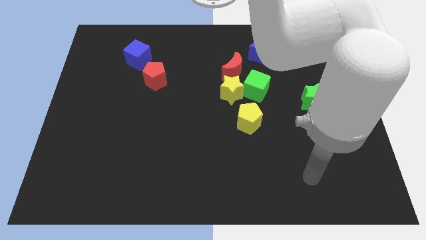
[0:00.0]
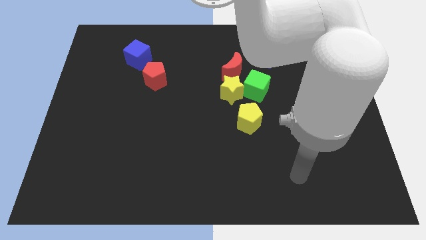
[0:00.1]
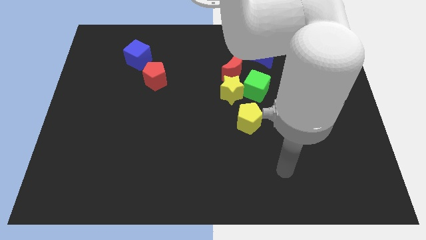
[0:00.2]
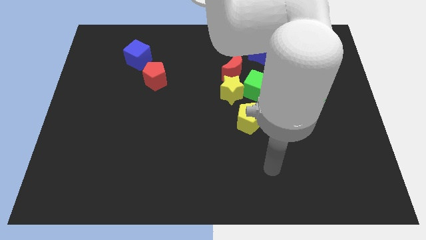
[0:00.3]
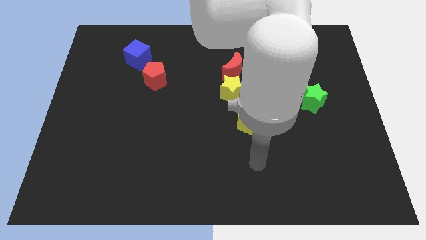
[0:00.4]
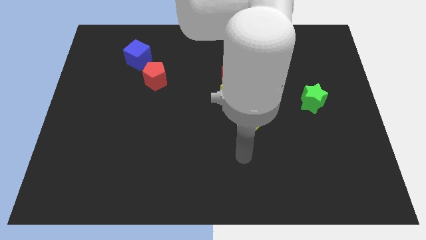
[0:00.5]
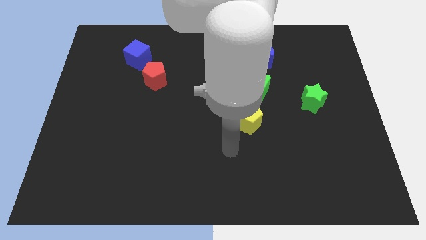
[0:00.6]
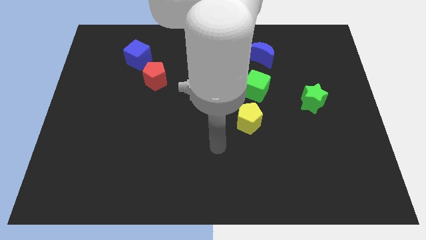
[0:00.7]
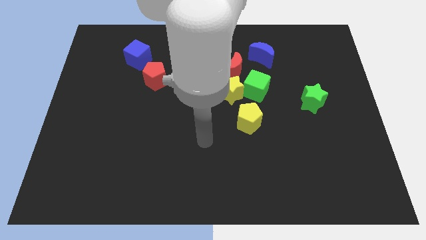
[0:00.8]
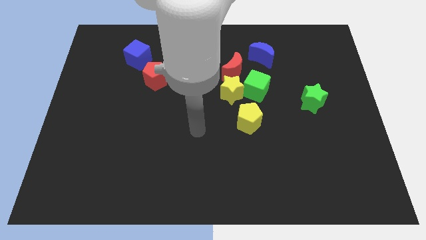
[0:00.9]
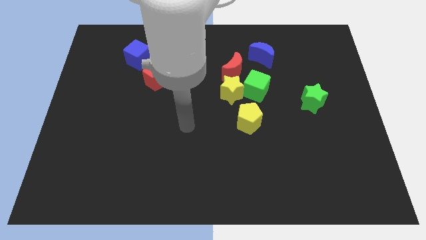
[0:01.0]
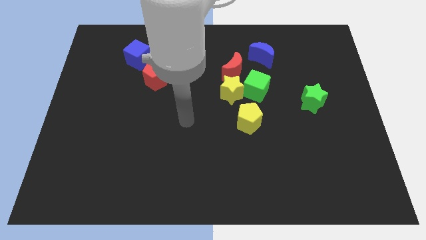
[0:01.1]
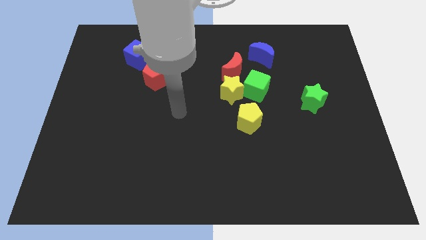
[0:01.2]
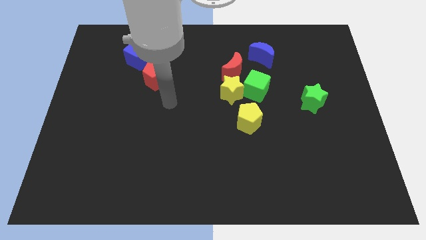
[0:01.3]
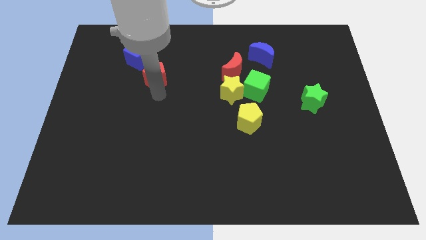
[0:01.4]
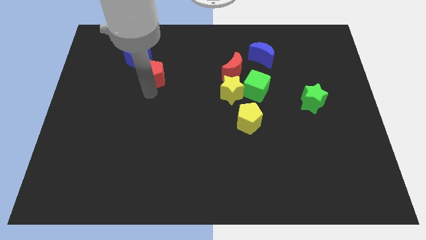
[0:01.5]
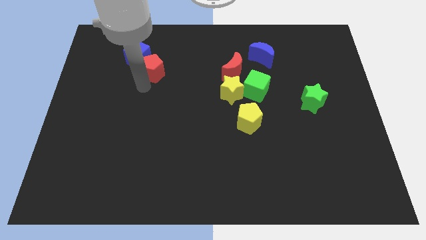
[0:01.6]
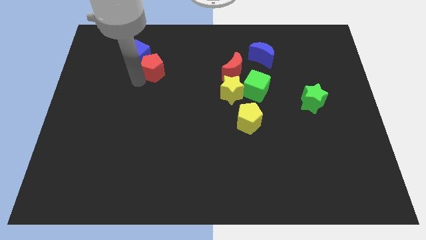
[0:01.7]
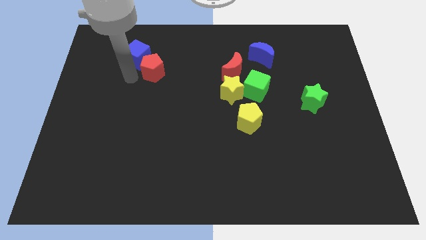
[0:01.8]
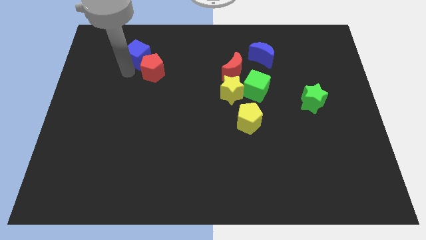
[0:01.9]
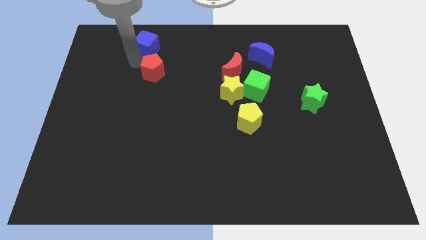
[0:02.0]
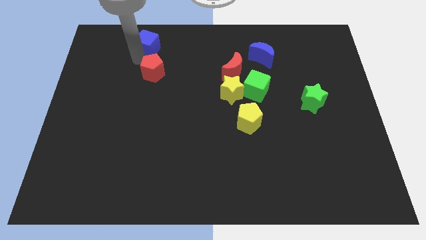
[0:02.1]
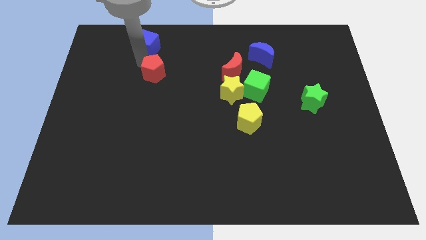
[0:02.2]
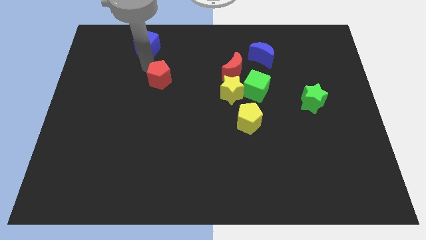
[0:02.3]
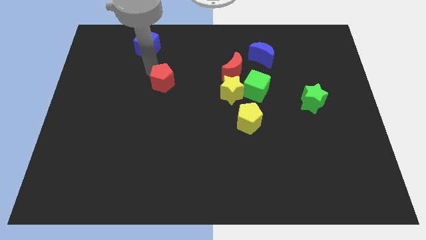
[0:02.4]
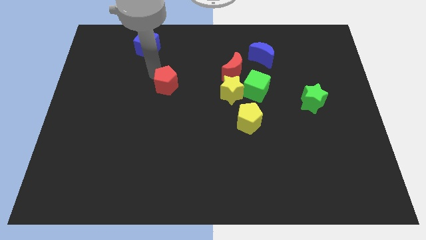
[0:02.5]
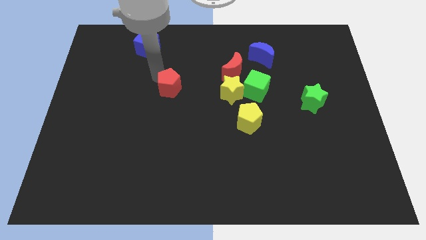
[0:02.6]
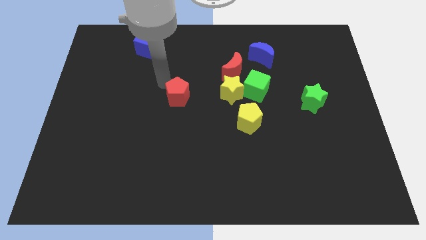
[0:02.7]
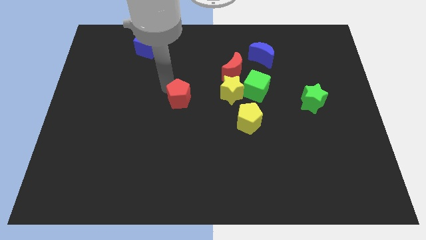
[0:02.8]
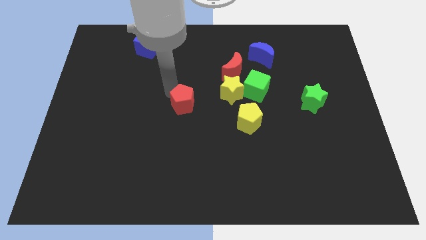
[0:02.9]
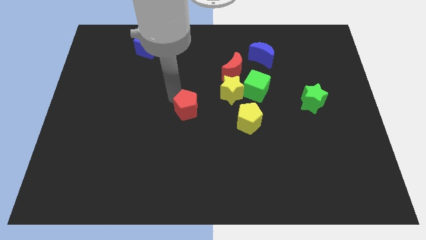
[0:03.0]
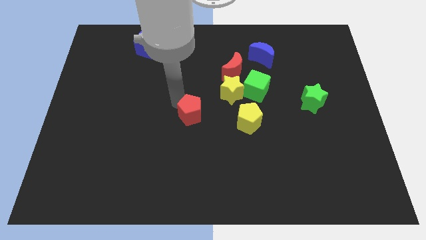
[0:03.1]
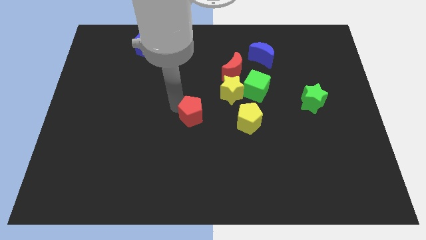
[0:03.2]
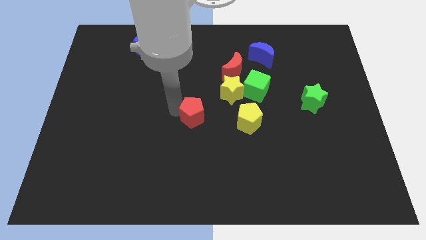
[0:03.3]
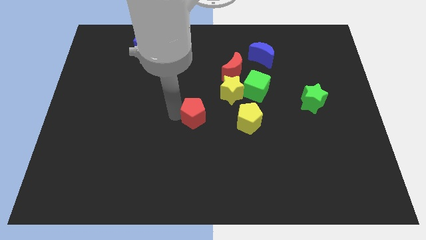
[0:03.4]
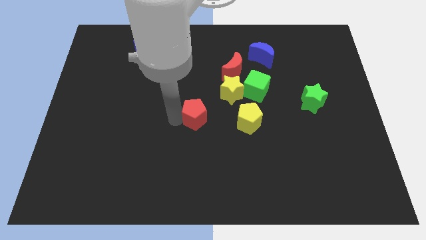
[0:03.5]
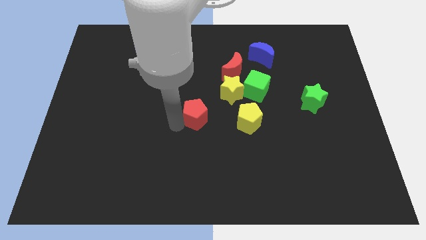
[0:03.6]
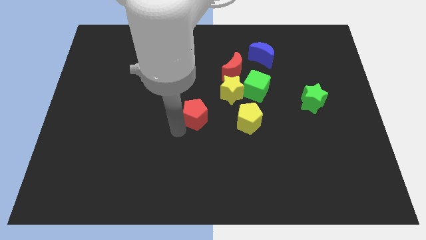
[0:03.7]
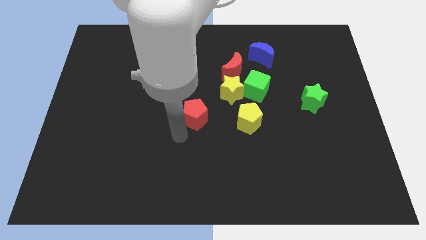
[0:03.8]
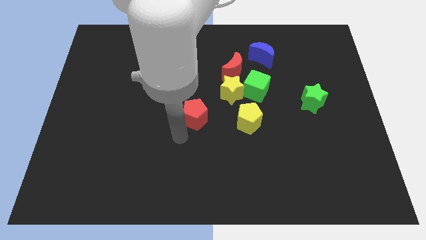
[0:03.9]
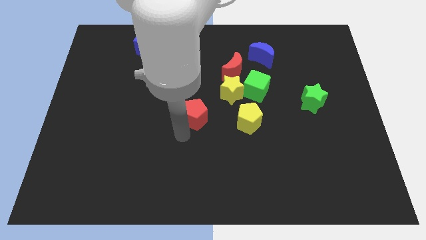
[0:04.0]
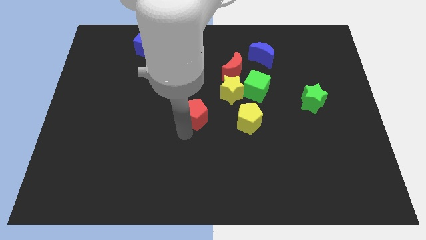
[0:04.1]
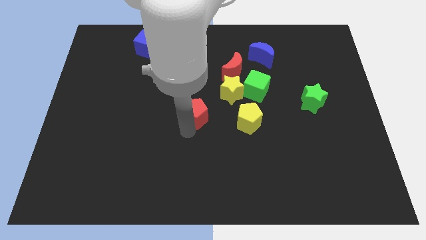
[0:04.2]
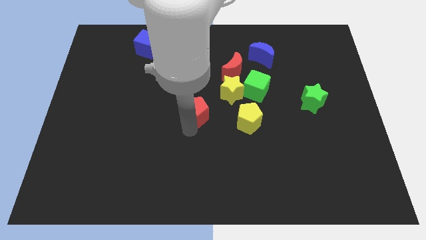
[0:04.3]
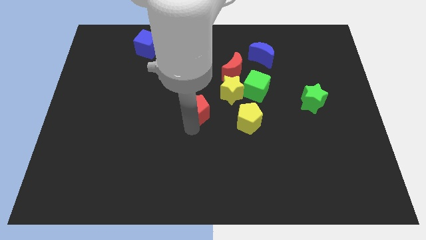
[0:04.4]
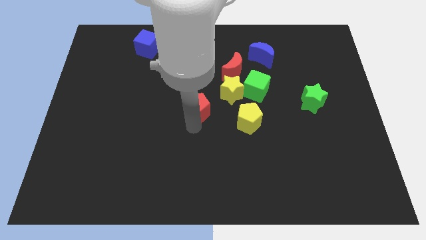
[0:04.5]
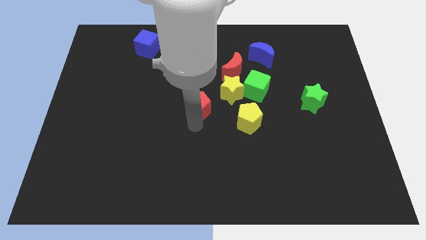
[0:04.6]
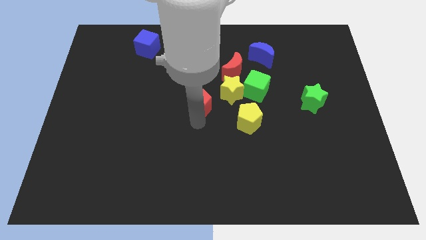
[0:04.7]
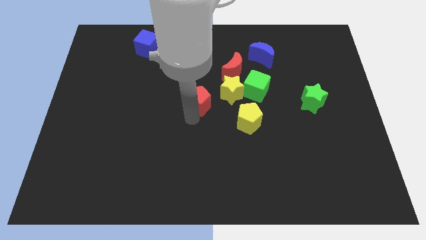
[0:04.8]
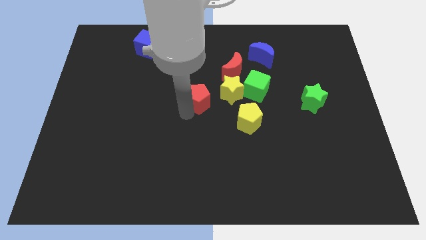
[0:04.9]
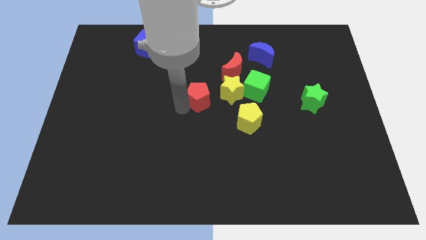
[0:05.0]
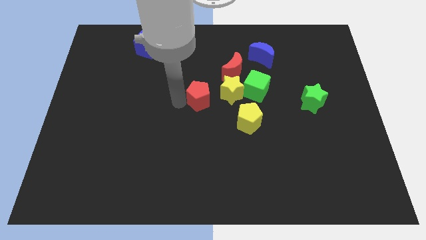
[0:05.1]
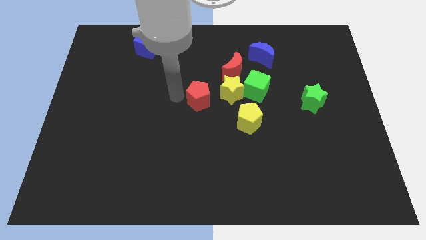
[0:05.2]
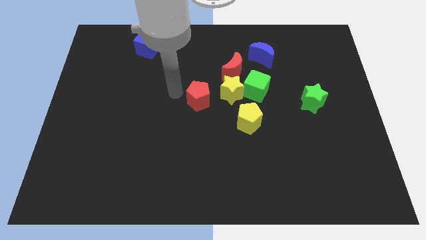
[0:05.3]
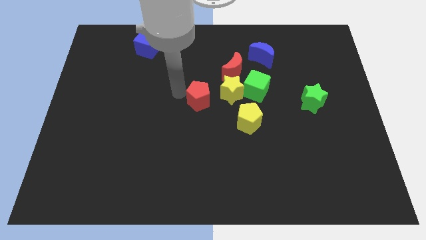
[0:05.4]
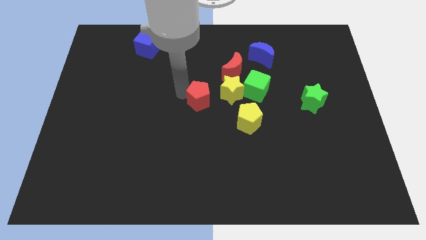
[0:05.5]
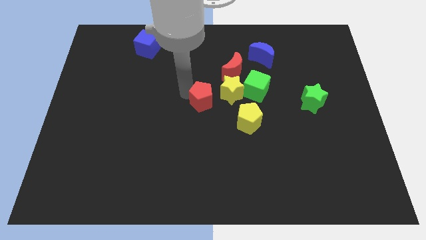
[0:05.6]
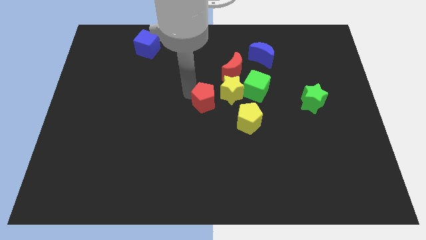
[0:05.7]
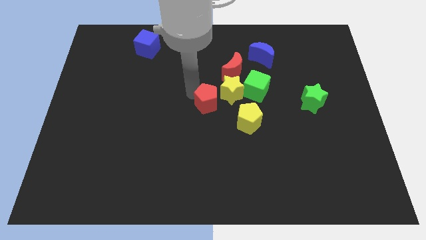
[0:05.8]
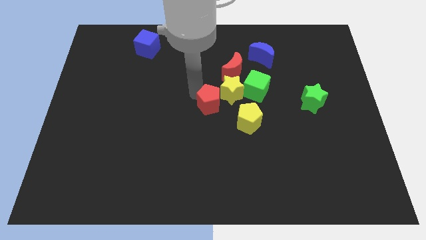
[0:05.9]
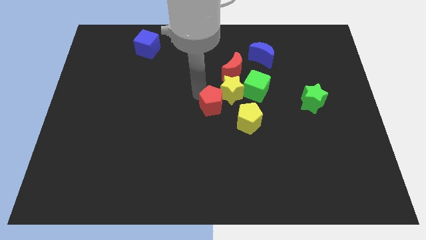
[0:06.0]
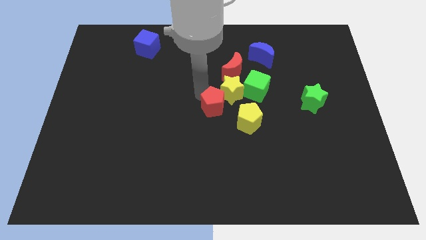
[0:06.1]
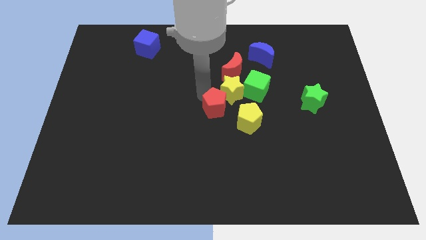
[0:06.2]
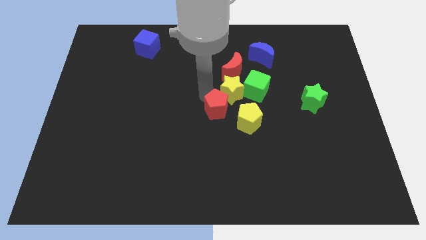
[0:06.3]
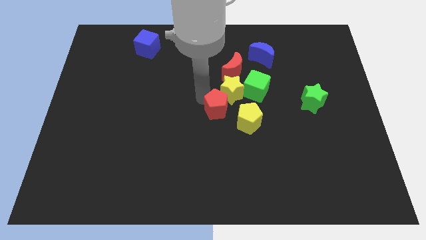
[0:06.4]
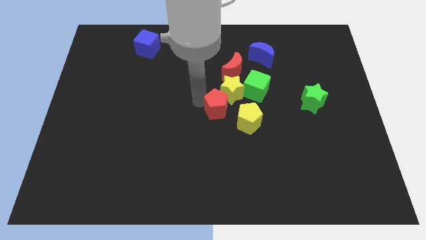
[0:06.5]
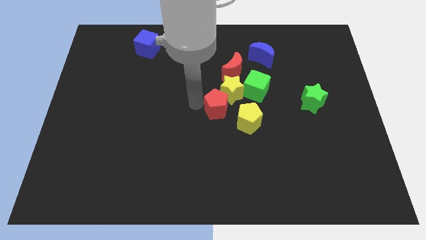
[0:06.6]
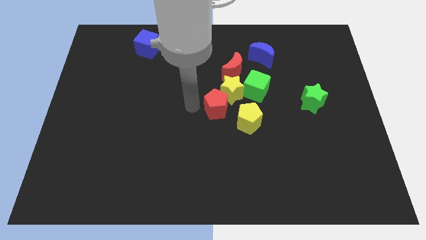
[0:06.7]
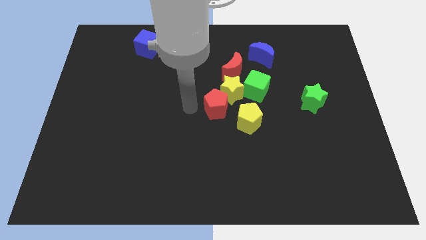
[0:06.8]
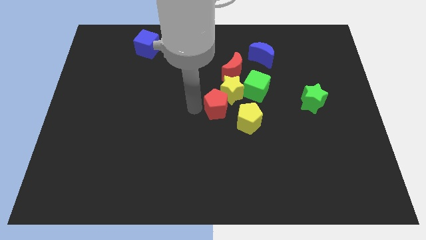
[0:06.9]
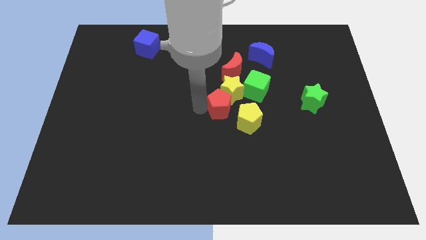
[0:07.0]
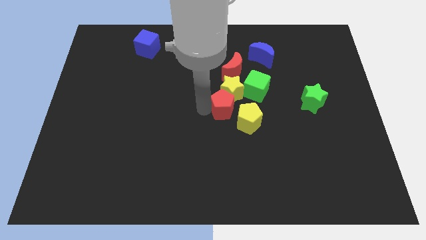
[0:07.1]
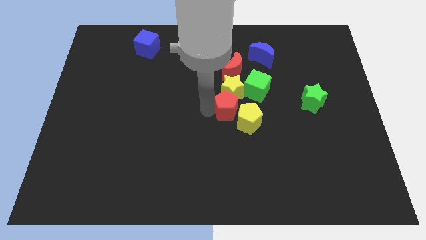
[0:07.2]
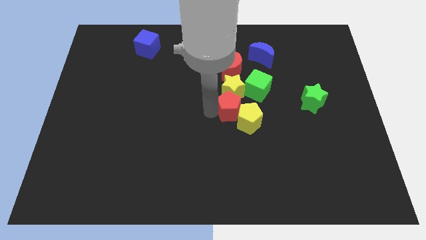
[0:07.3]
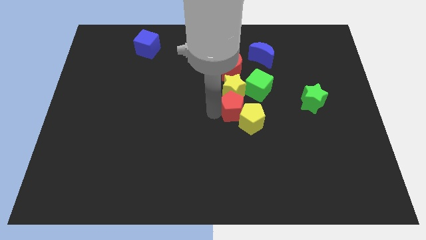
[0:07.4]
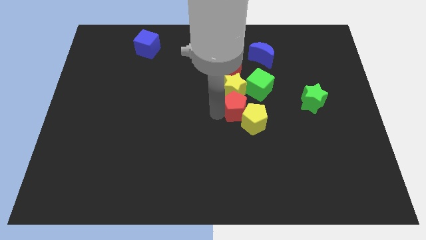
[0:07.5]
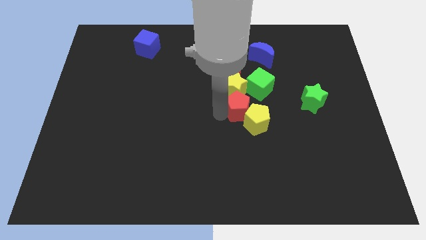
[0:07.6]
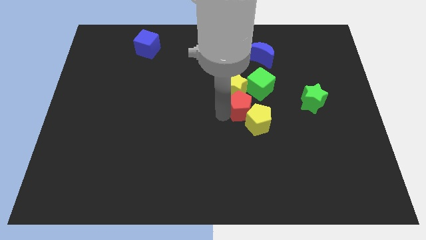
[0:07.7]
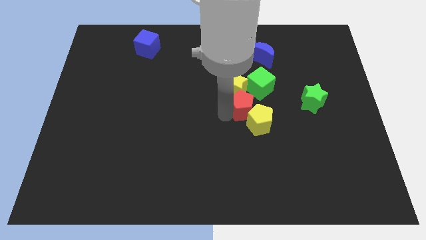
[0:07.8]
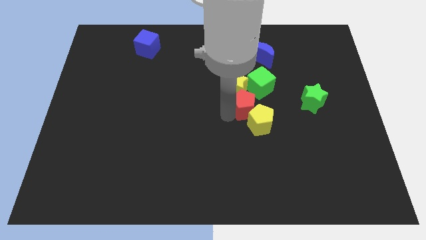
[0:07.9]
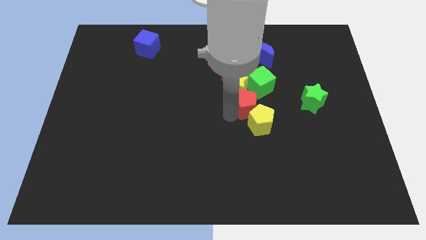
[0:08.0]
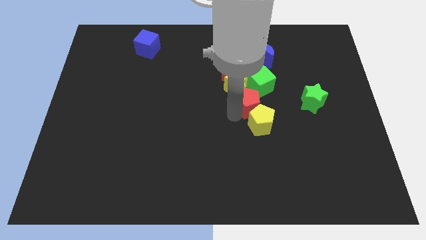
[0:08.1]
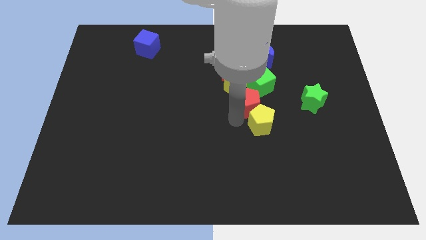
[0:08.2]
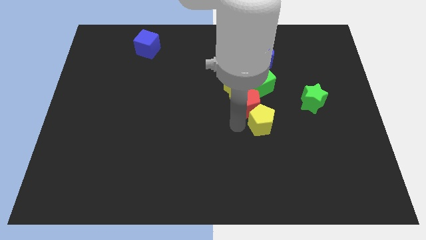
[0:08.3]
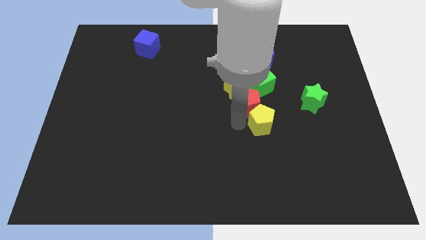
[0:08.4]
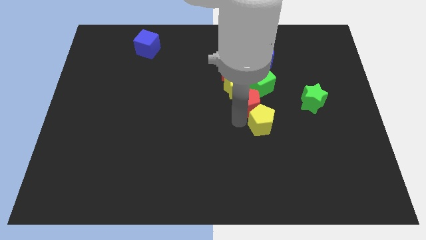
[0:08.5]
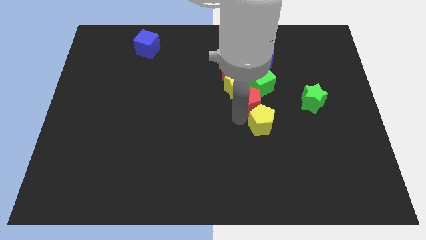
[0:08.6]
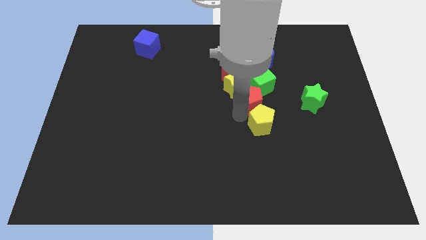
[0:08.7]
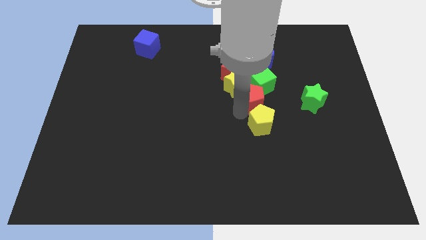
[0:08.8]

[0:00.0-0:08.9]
move the red pentagon towards the green cube
